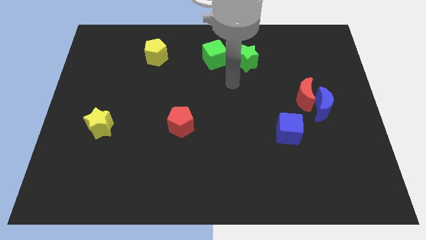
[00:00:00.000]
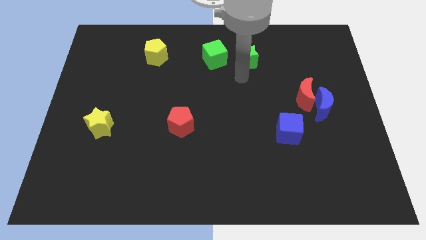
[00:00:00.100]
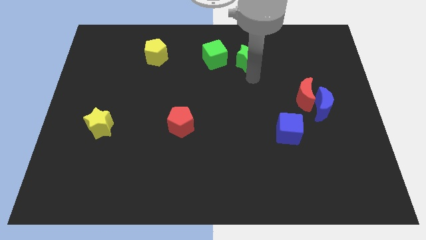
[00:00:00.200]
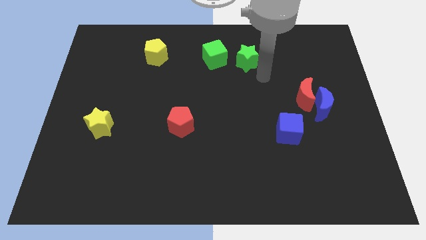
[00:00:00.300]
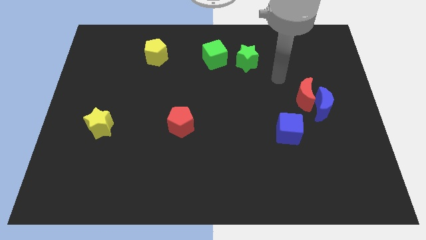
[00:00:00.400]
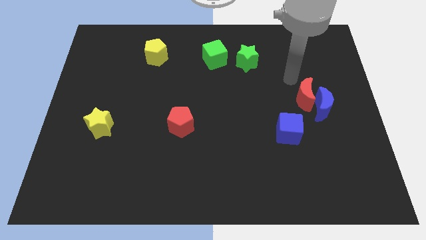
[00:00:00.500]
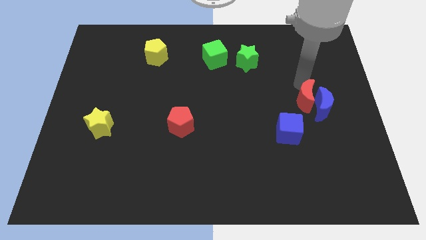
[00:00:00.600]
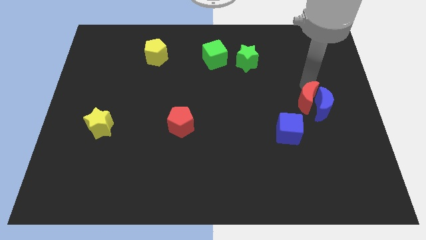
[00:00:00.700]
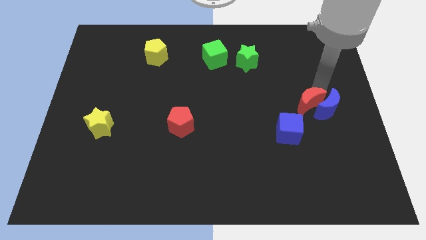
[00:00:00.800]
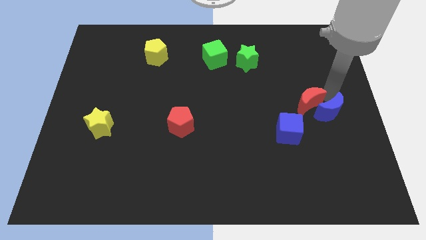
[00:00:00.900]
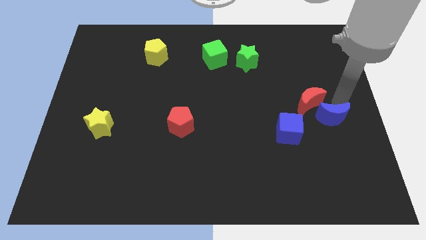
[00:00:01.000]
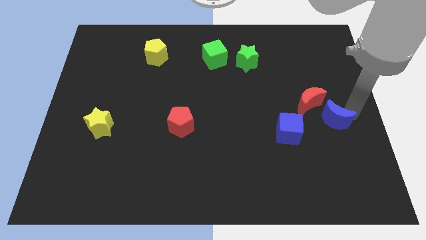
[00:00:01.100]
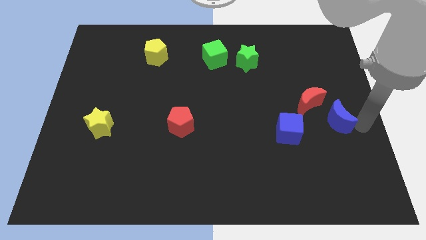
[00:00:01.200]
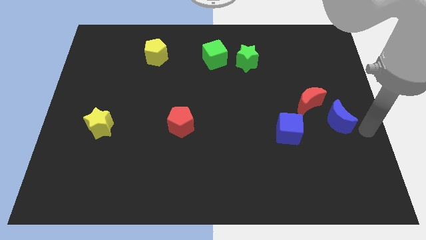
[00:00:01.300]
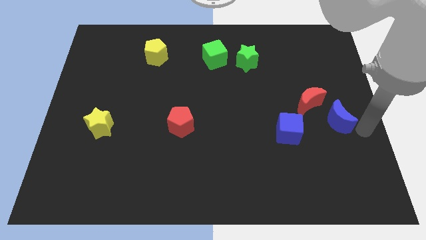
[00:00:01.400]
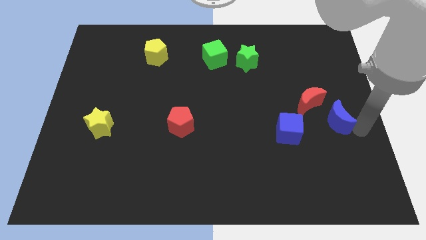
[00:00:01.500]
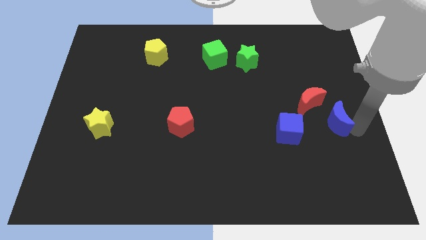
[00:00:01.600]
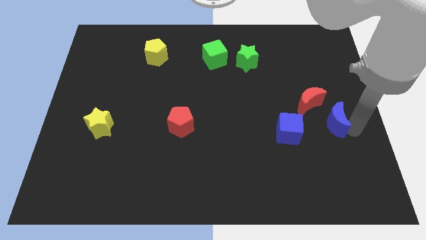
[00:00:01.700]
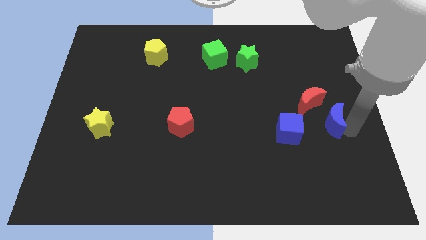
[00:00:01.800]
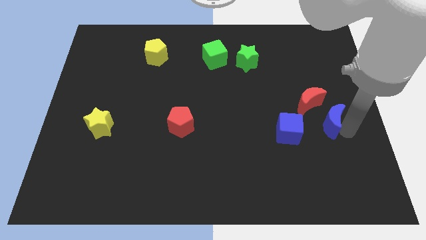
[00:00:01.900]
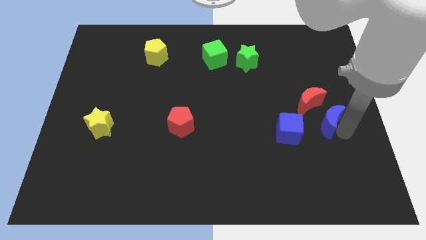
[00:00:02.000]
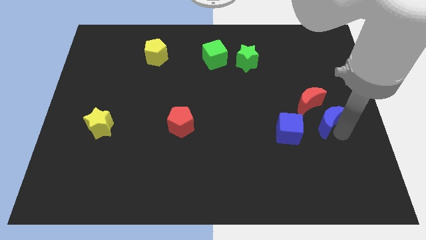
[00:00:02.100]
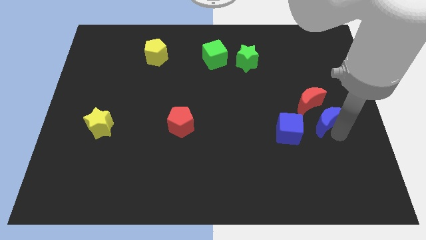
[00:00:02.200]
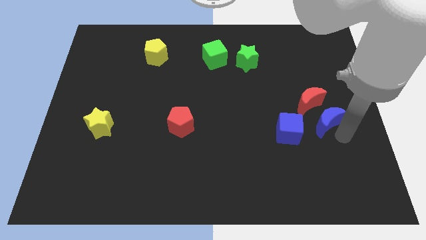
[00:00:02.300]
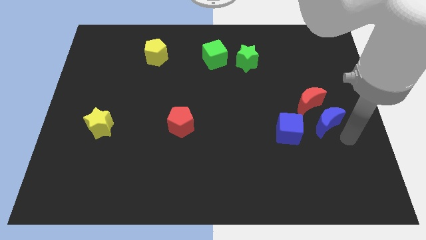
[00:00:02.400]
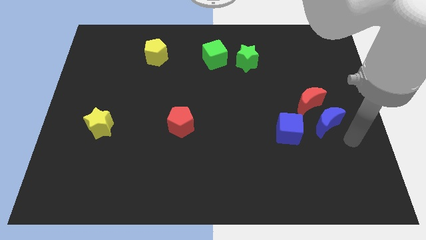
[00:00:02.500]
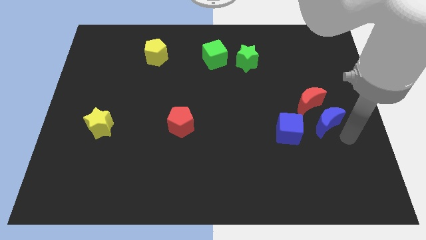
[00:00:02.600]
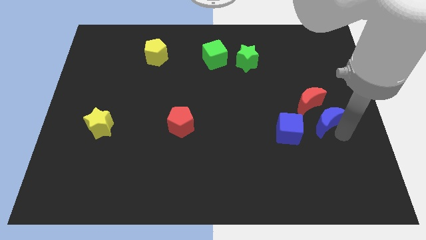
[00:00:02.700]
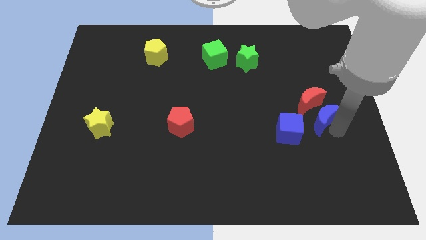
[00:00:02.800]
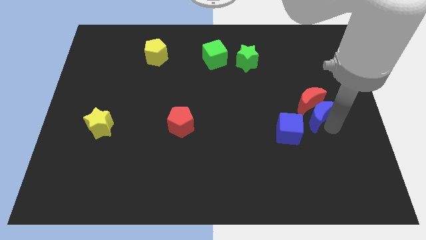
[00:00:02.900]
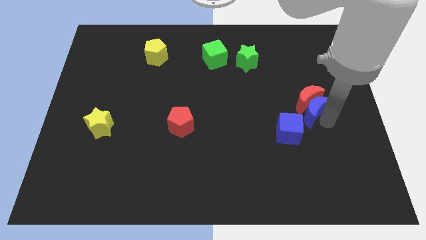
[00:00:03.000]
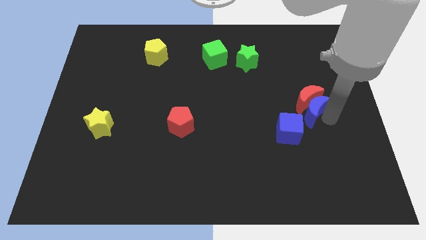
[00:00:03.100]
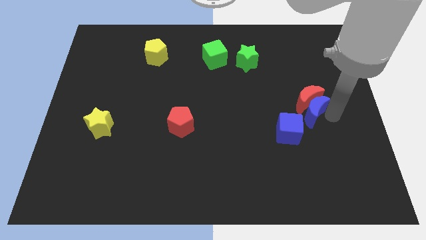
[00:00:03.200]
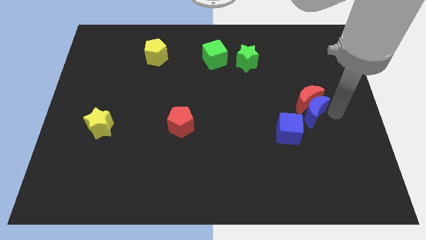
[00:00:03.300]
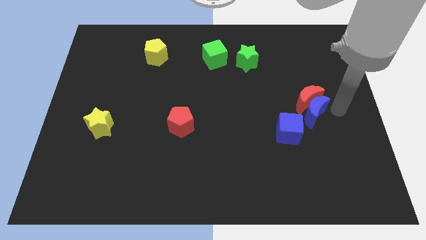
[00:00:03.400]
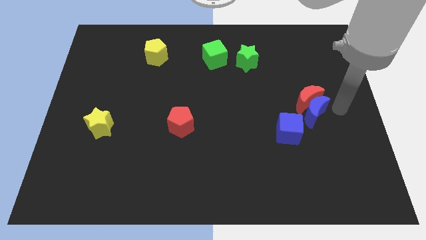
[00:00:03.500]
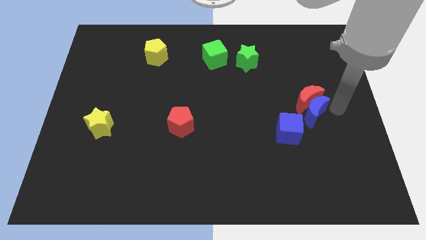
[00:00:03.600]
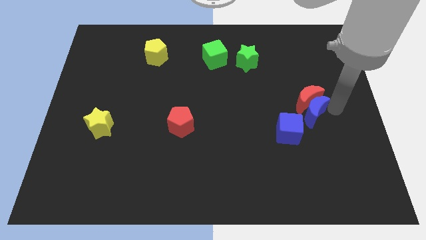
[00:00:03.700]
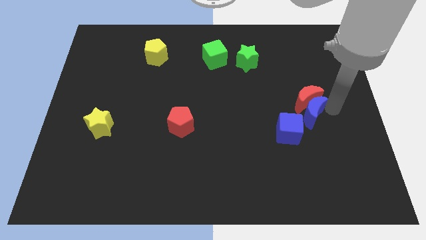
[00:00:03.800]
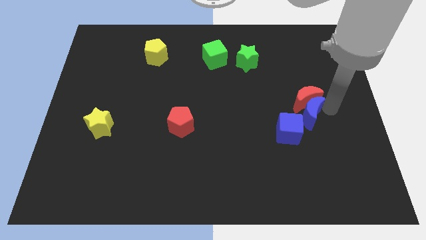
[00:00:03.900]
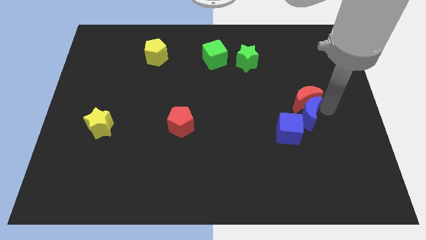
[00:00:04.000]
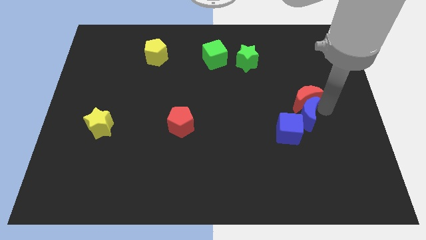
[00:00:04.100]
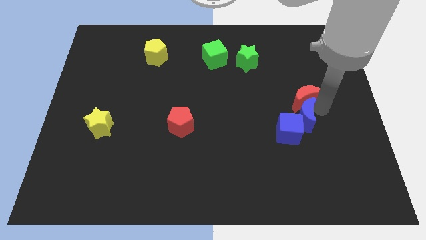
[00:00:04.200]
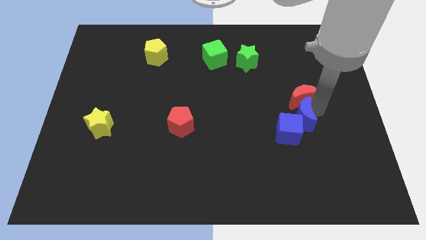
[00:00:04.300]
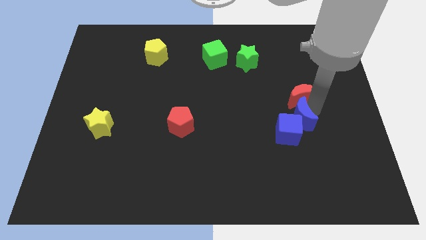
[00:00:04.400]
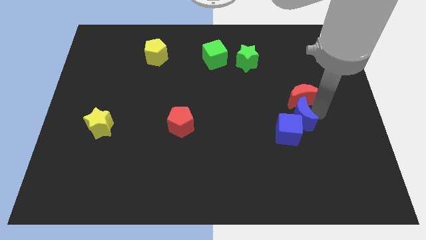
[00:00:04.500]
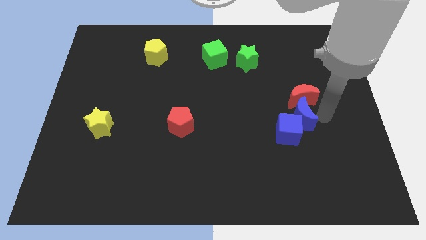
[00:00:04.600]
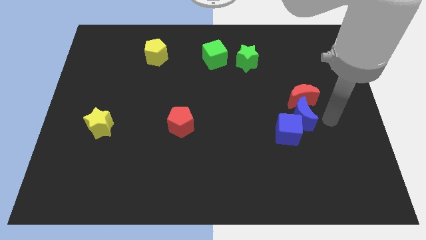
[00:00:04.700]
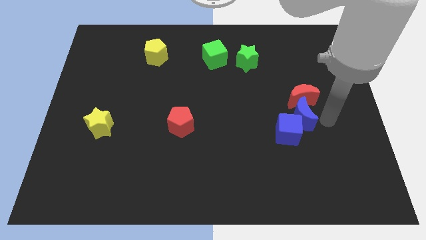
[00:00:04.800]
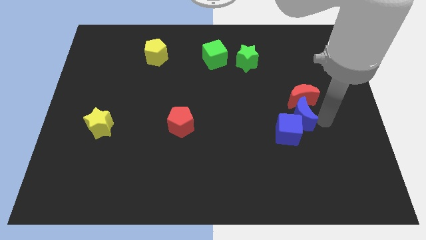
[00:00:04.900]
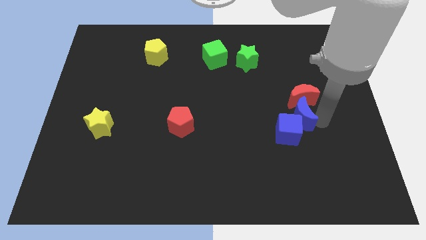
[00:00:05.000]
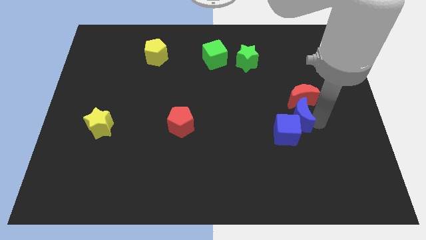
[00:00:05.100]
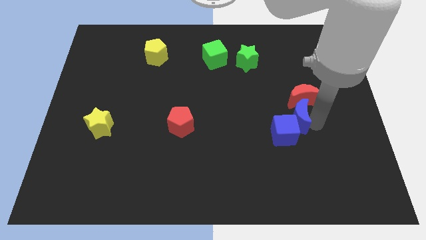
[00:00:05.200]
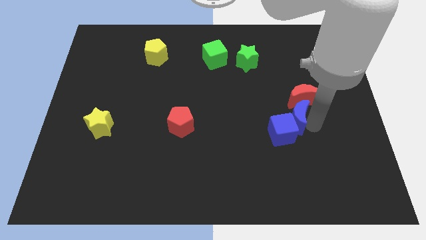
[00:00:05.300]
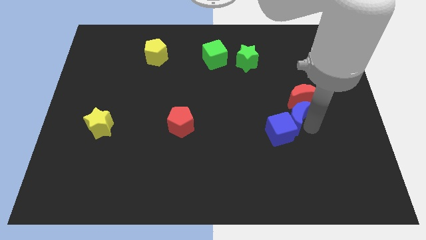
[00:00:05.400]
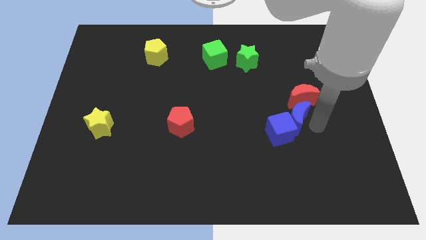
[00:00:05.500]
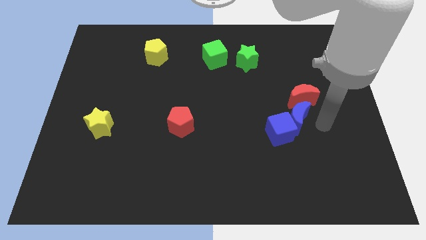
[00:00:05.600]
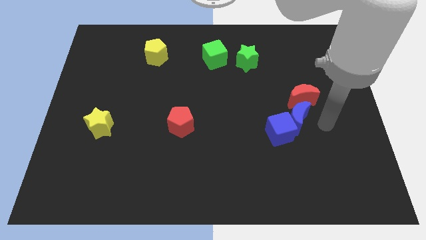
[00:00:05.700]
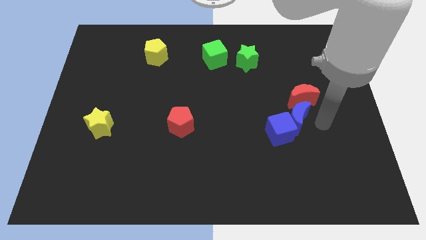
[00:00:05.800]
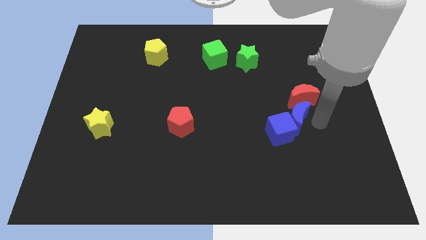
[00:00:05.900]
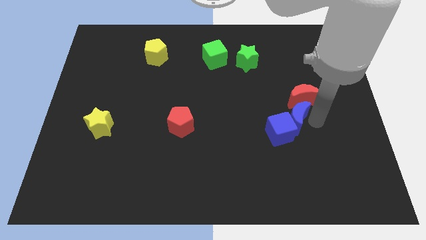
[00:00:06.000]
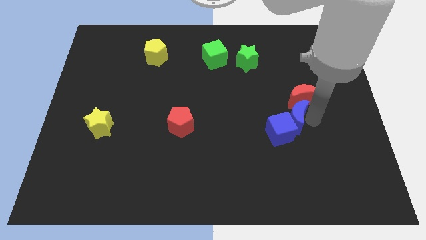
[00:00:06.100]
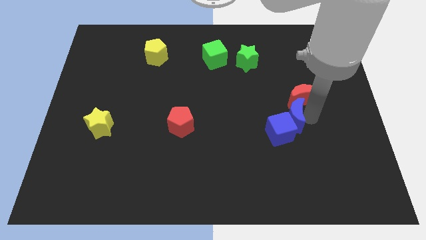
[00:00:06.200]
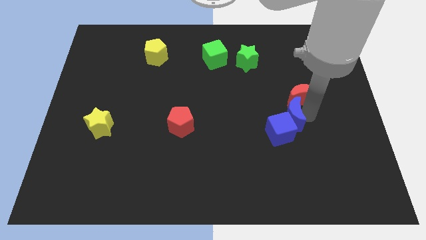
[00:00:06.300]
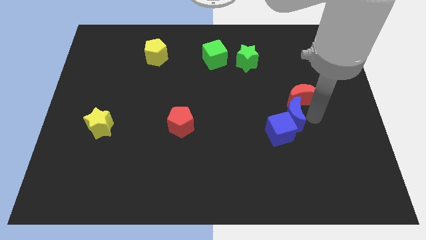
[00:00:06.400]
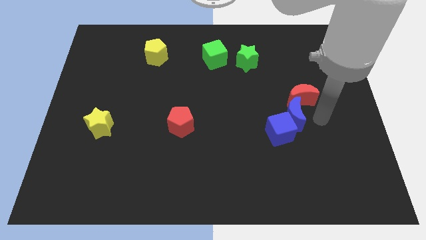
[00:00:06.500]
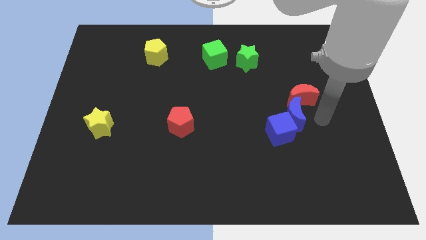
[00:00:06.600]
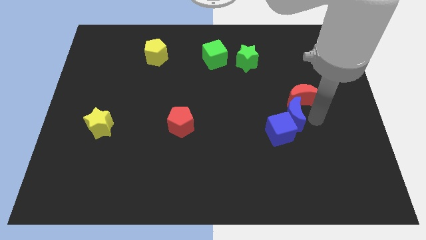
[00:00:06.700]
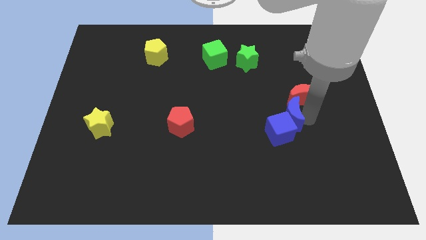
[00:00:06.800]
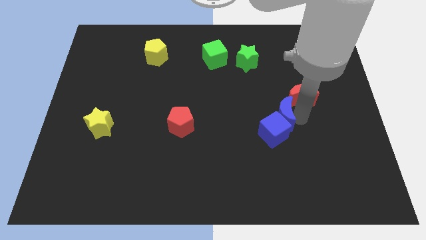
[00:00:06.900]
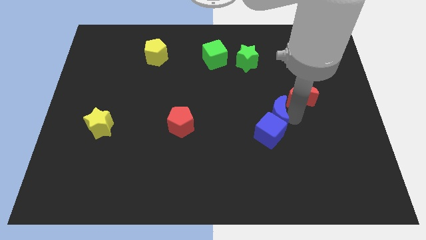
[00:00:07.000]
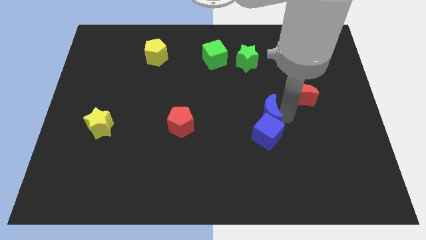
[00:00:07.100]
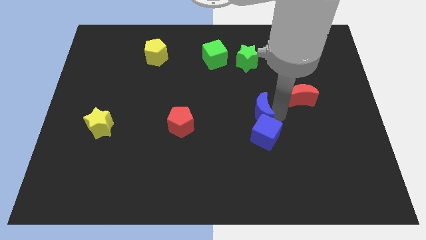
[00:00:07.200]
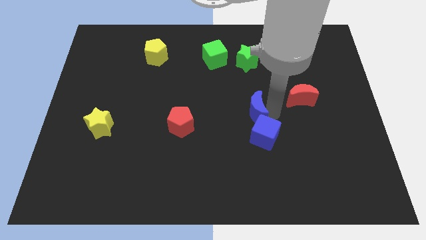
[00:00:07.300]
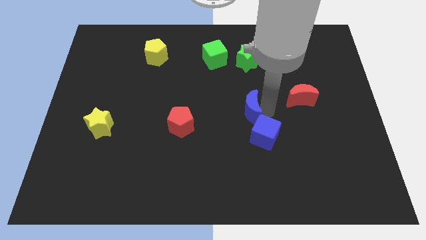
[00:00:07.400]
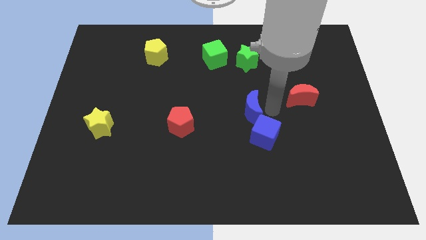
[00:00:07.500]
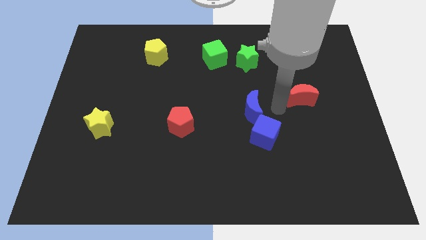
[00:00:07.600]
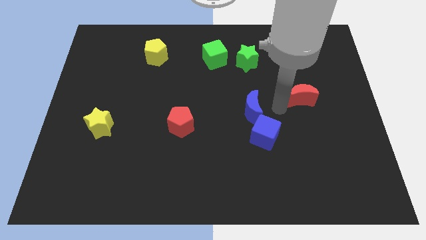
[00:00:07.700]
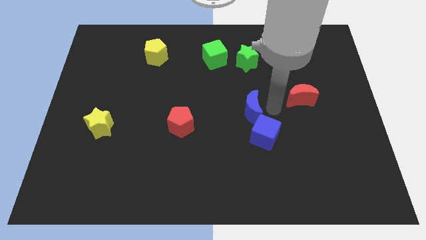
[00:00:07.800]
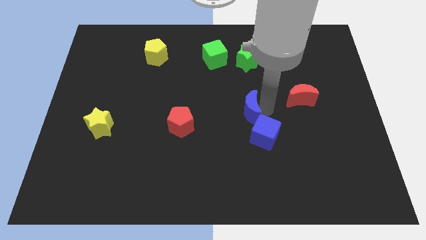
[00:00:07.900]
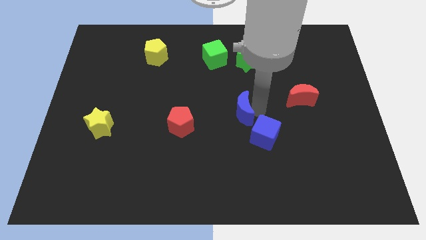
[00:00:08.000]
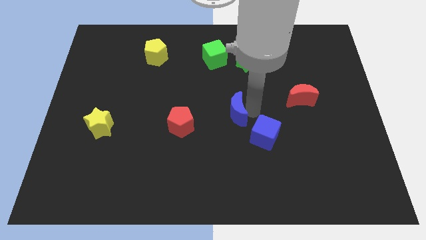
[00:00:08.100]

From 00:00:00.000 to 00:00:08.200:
push the blue moon to the left
